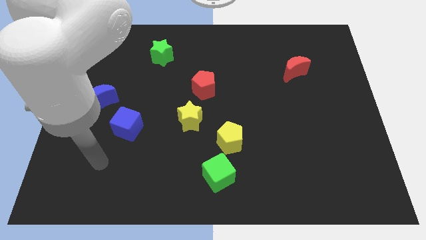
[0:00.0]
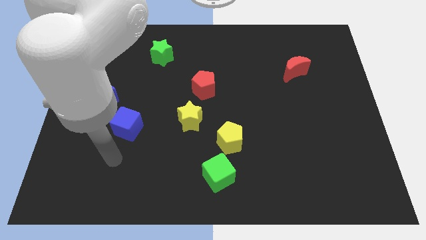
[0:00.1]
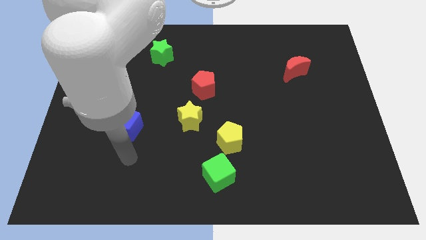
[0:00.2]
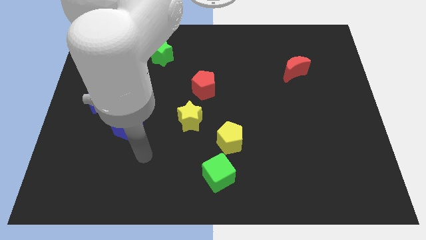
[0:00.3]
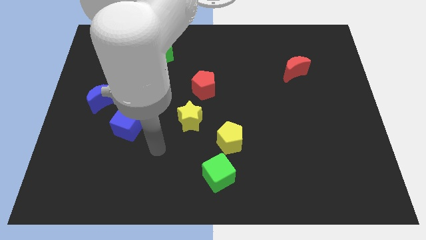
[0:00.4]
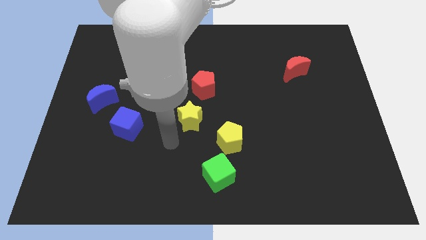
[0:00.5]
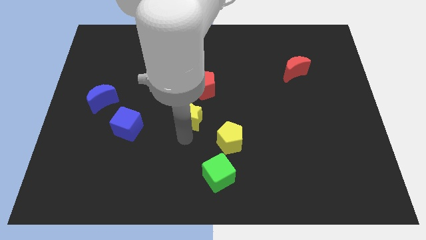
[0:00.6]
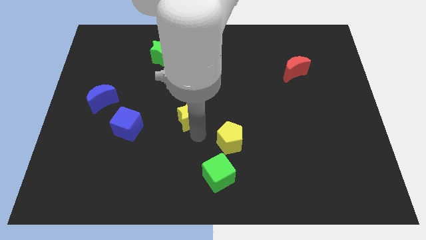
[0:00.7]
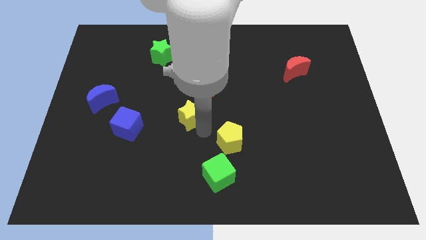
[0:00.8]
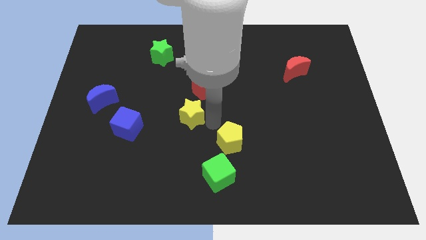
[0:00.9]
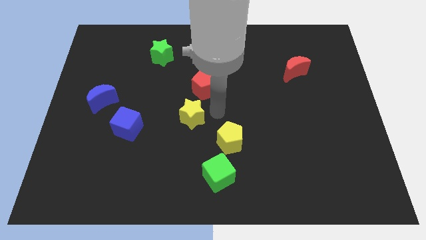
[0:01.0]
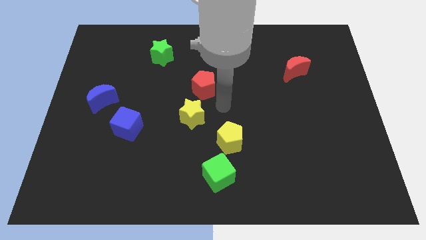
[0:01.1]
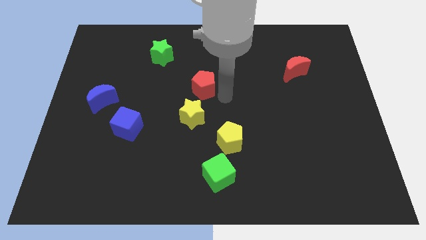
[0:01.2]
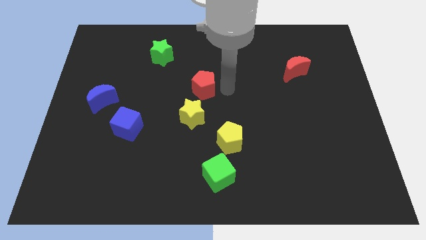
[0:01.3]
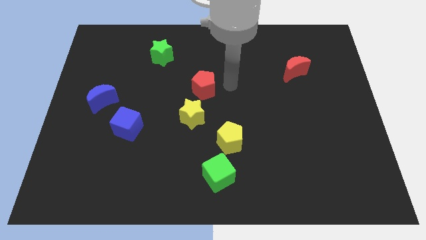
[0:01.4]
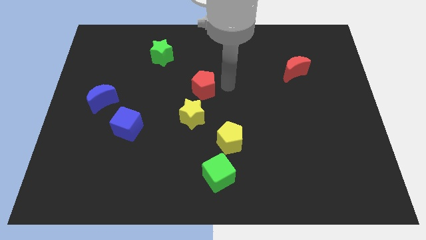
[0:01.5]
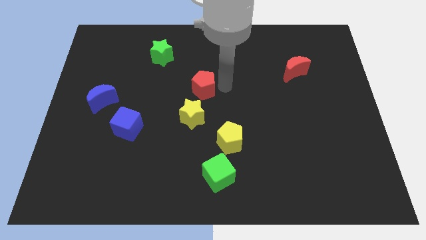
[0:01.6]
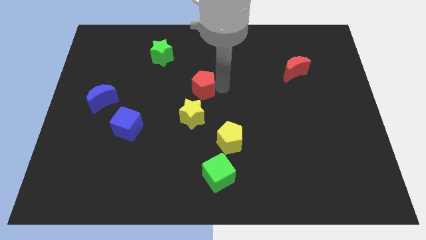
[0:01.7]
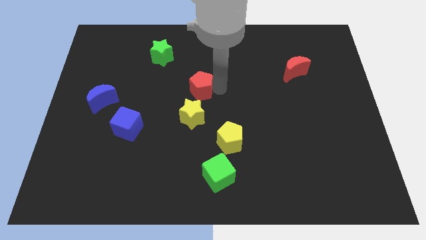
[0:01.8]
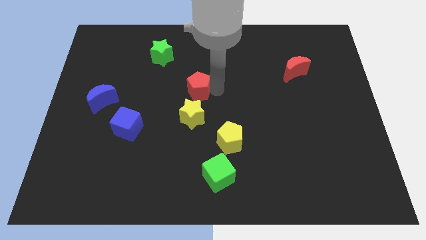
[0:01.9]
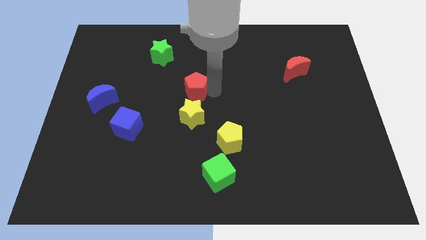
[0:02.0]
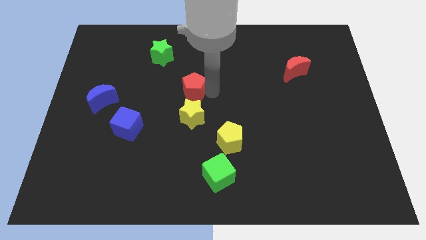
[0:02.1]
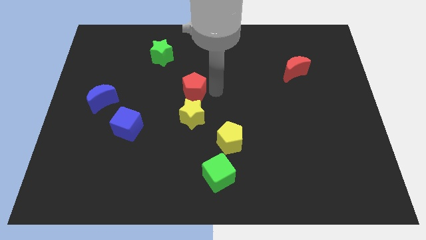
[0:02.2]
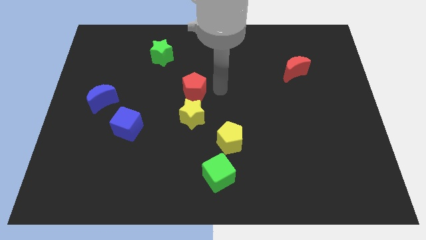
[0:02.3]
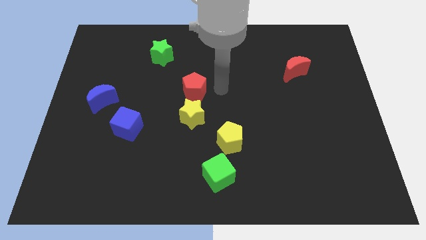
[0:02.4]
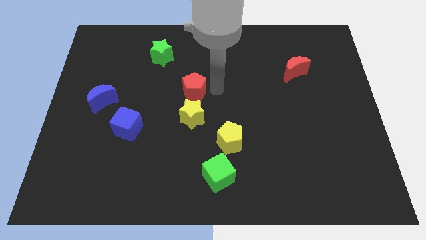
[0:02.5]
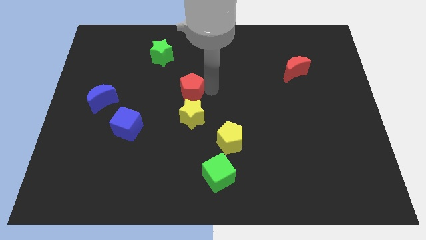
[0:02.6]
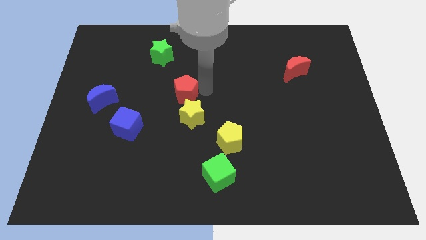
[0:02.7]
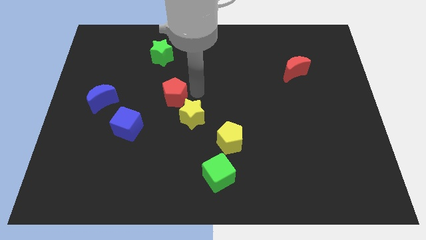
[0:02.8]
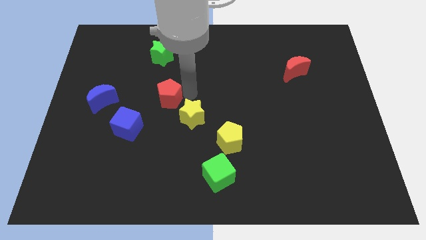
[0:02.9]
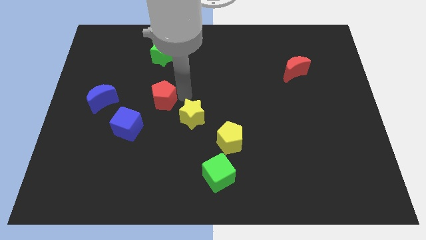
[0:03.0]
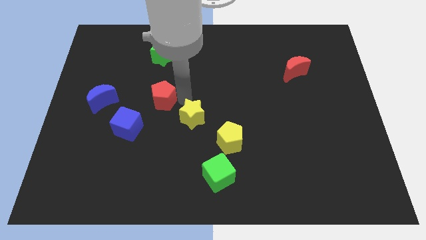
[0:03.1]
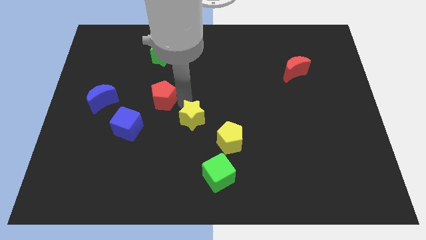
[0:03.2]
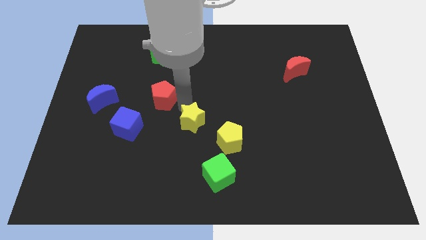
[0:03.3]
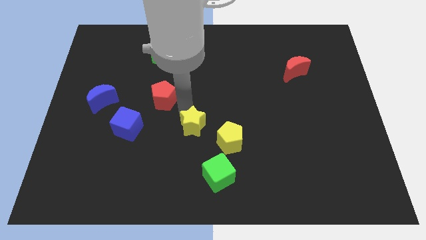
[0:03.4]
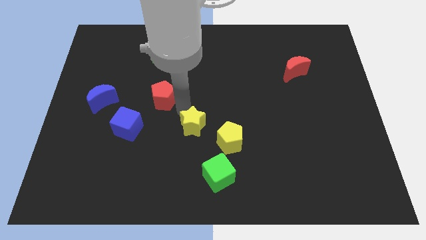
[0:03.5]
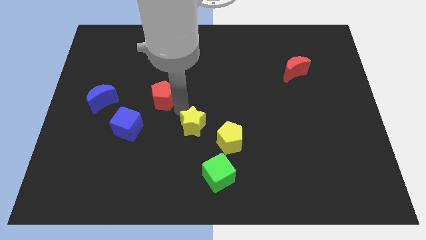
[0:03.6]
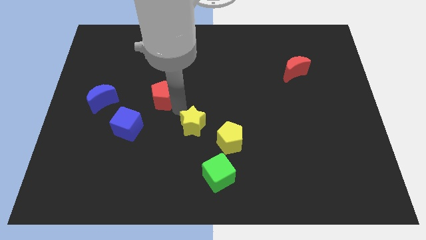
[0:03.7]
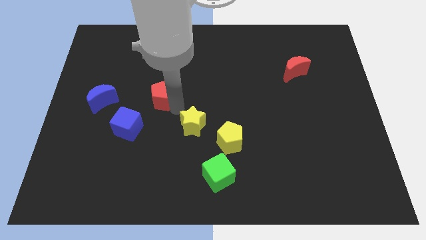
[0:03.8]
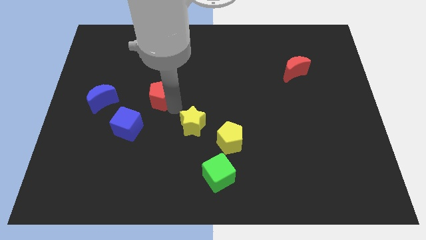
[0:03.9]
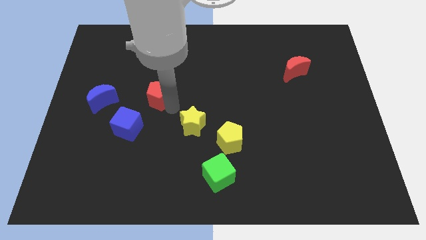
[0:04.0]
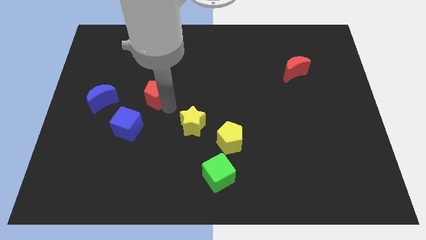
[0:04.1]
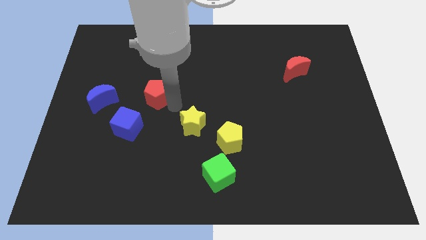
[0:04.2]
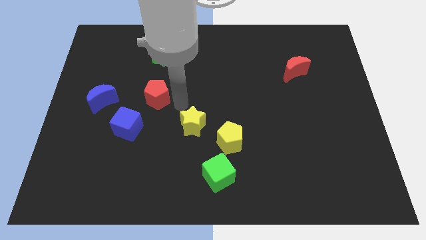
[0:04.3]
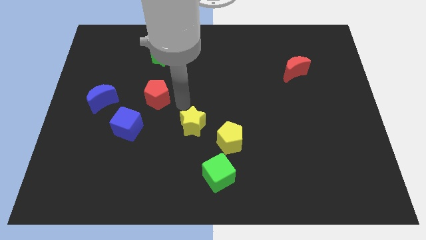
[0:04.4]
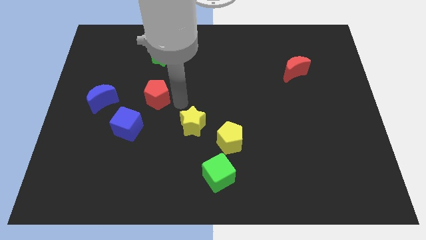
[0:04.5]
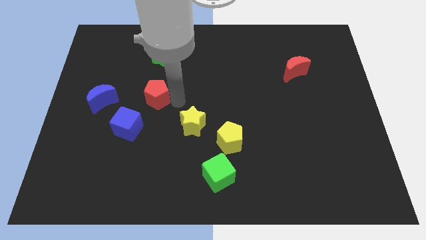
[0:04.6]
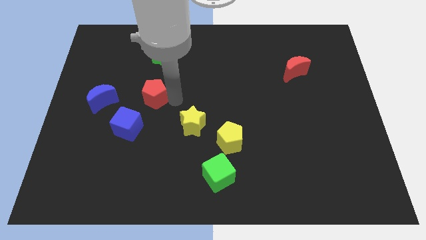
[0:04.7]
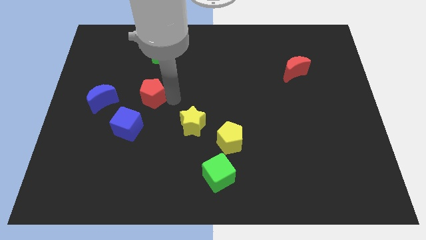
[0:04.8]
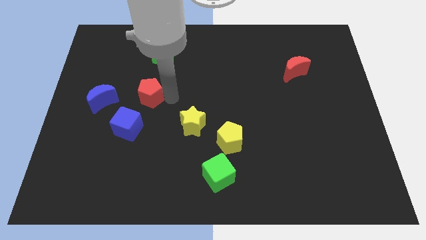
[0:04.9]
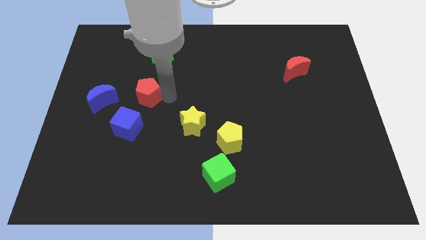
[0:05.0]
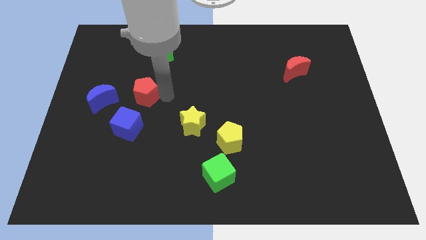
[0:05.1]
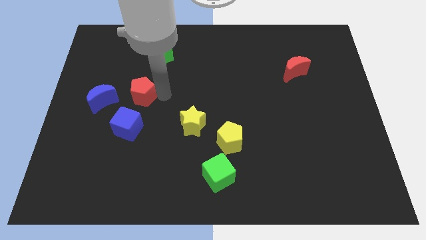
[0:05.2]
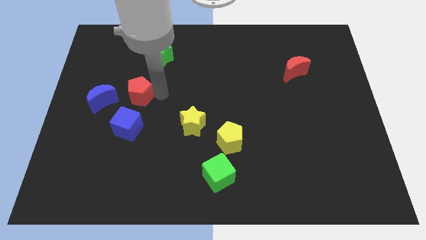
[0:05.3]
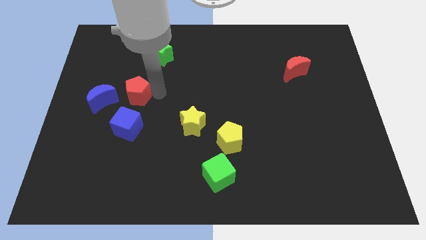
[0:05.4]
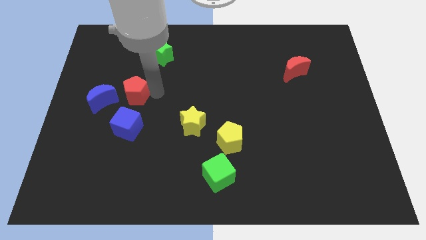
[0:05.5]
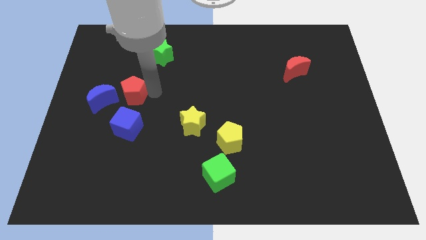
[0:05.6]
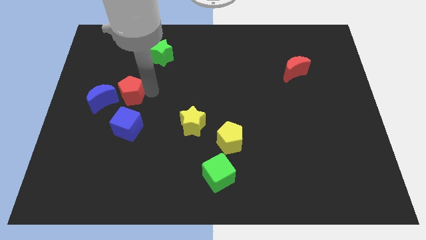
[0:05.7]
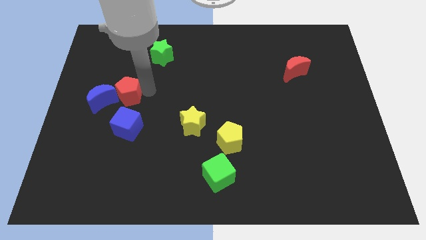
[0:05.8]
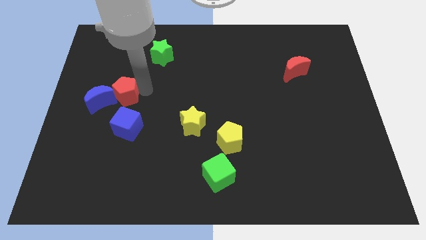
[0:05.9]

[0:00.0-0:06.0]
put the red pentagon close to the blue moon

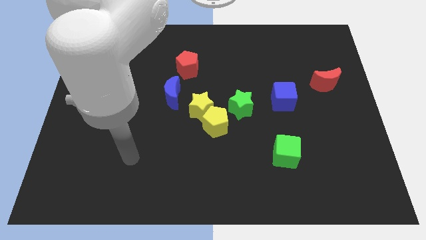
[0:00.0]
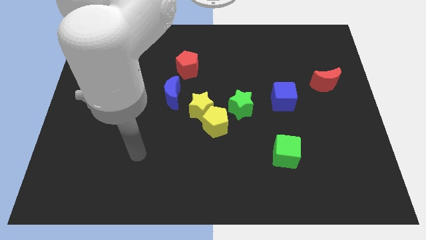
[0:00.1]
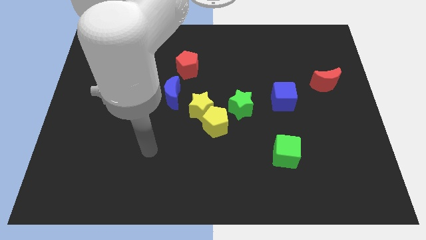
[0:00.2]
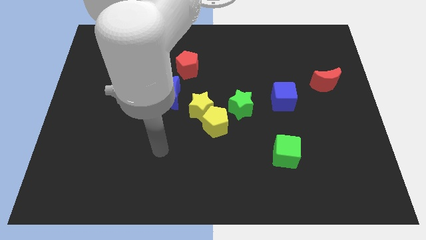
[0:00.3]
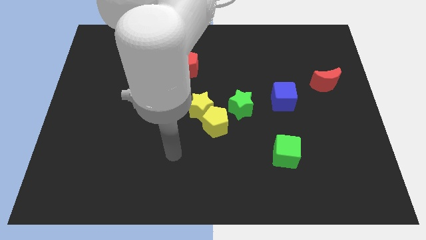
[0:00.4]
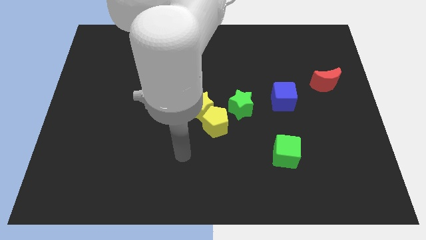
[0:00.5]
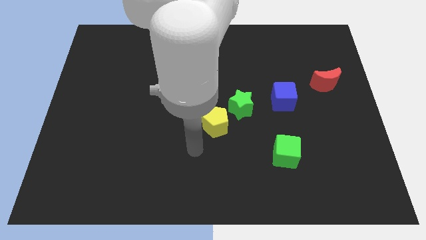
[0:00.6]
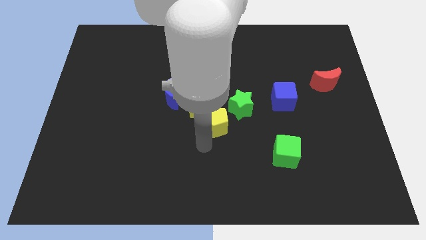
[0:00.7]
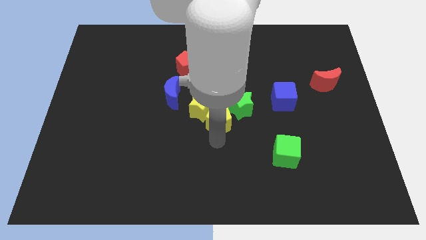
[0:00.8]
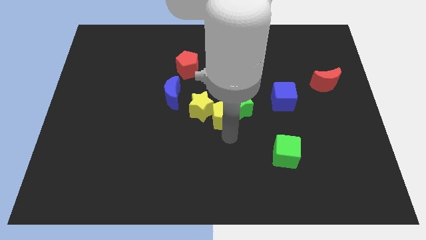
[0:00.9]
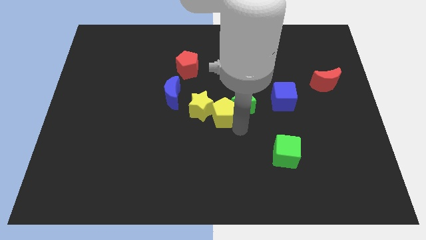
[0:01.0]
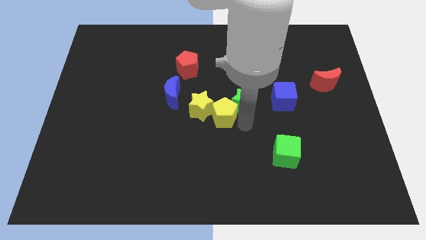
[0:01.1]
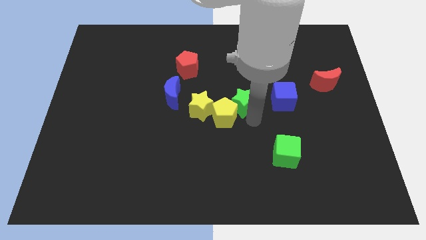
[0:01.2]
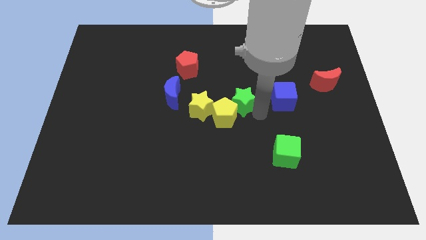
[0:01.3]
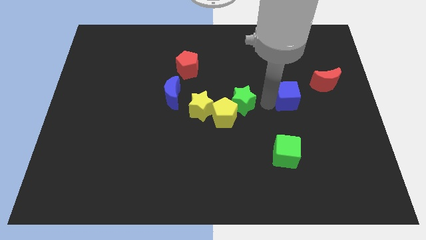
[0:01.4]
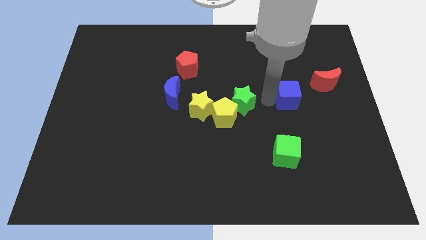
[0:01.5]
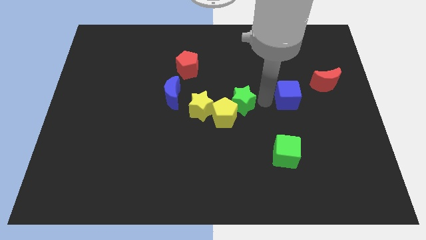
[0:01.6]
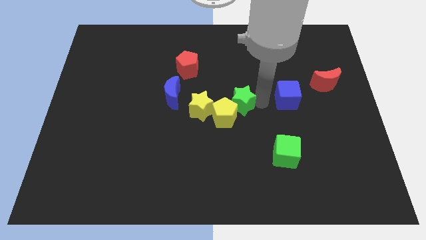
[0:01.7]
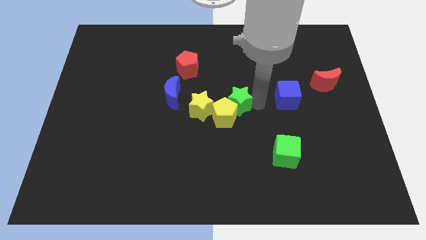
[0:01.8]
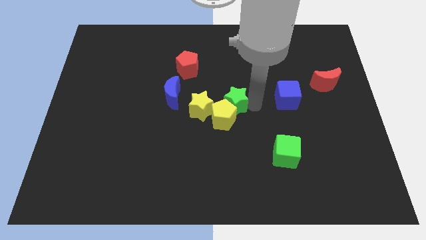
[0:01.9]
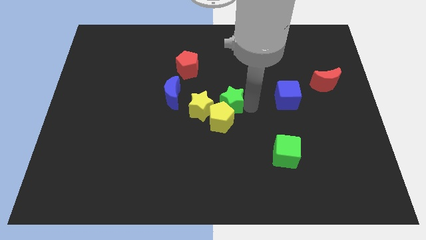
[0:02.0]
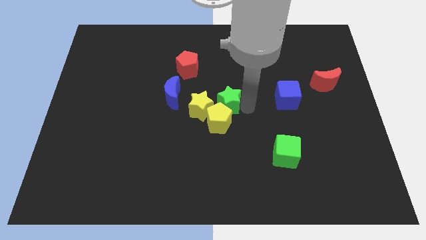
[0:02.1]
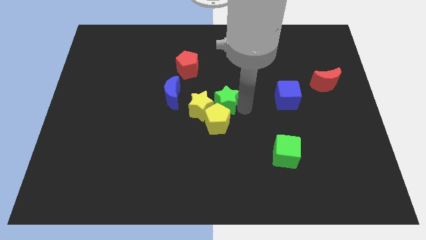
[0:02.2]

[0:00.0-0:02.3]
put the green star towards the yellow star
